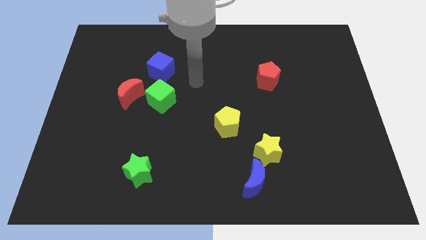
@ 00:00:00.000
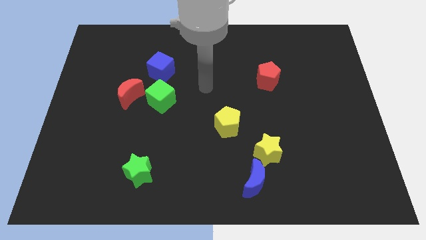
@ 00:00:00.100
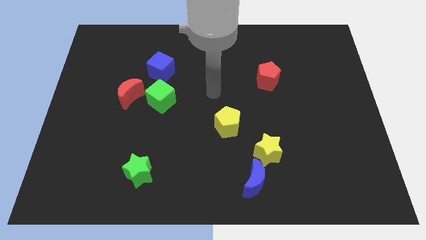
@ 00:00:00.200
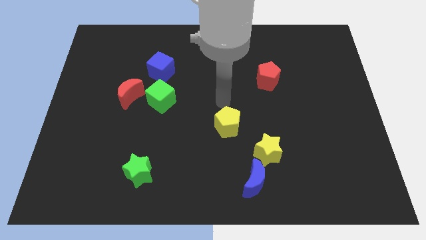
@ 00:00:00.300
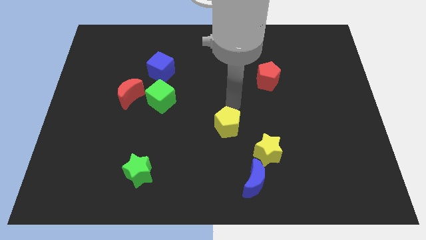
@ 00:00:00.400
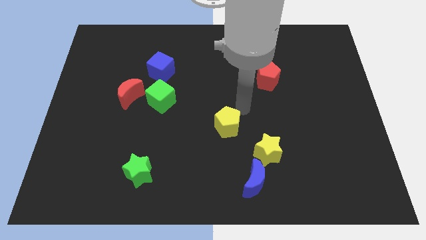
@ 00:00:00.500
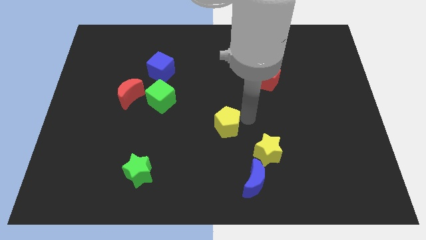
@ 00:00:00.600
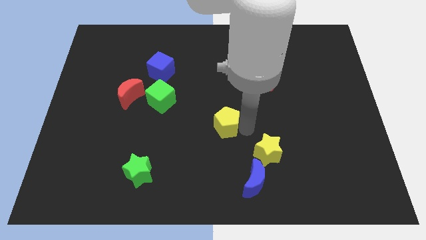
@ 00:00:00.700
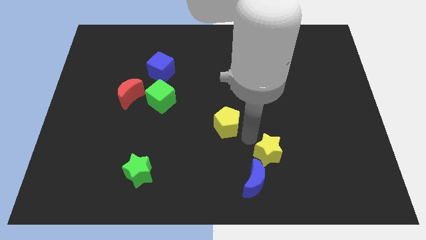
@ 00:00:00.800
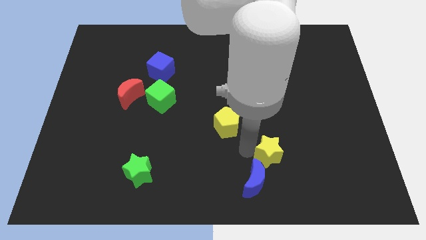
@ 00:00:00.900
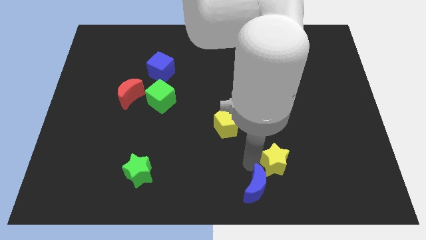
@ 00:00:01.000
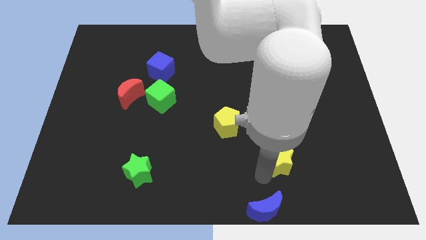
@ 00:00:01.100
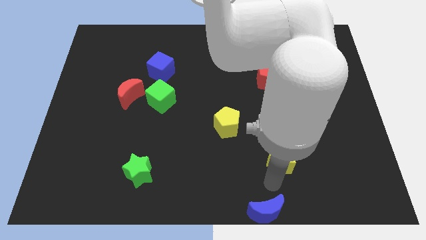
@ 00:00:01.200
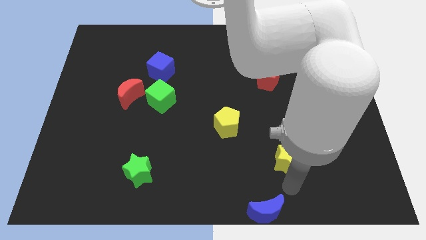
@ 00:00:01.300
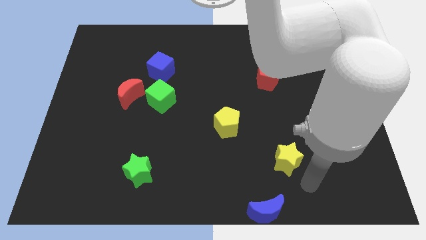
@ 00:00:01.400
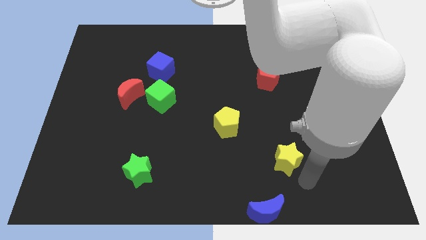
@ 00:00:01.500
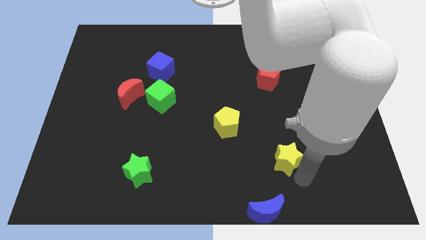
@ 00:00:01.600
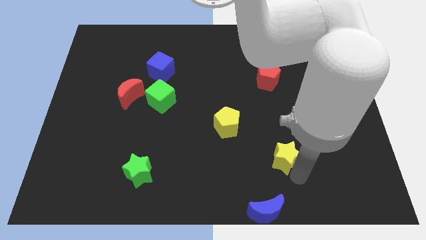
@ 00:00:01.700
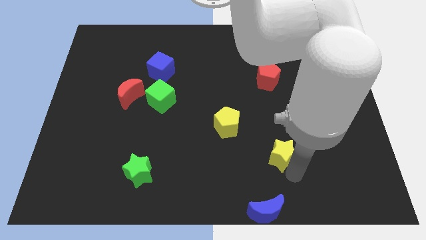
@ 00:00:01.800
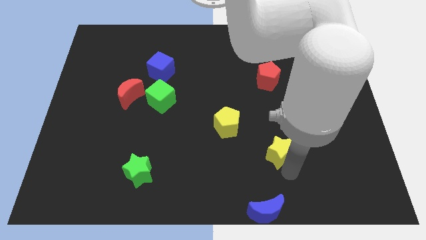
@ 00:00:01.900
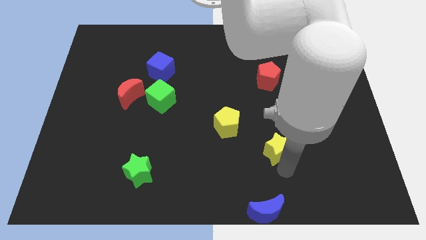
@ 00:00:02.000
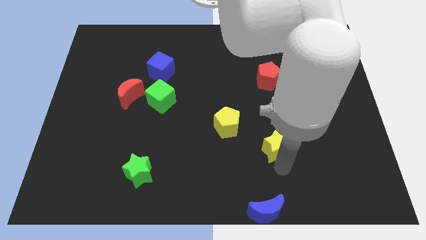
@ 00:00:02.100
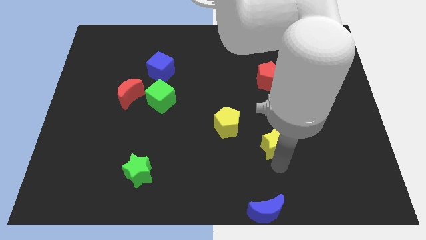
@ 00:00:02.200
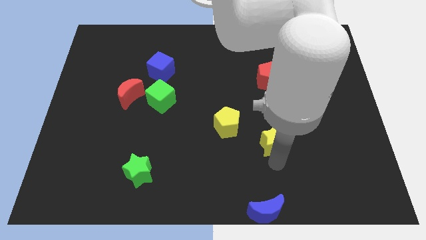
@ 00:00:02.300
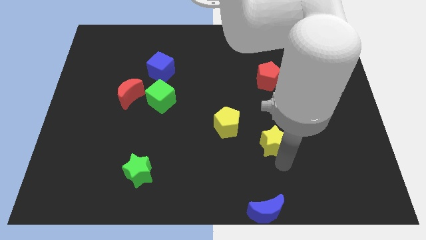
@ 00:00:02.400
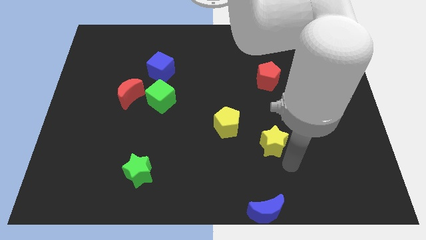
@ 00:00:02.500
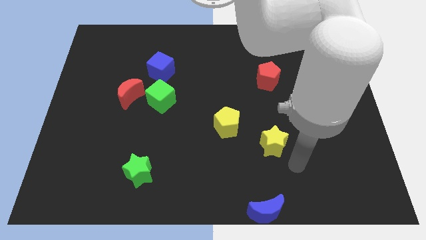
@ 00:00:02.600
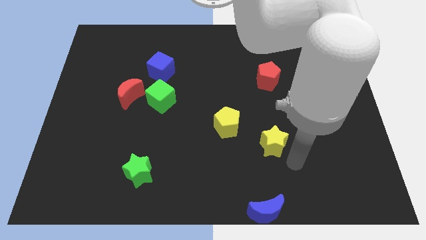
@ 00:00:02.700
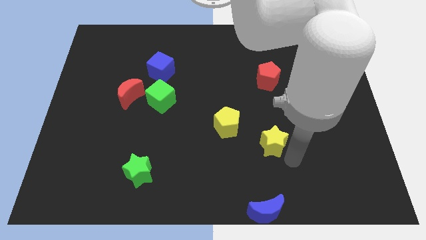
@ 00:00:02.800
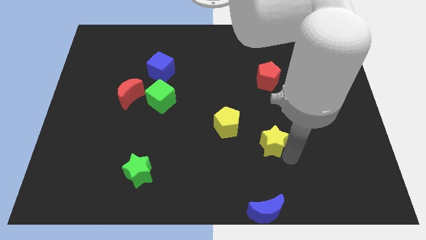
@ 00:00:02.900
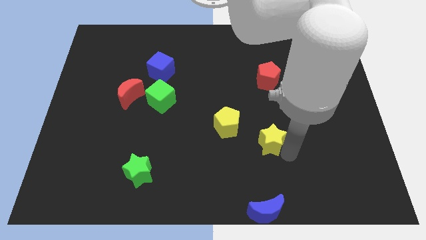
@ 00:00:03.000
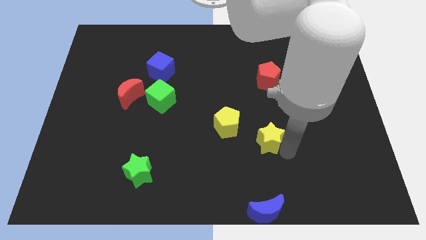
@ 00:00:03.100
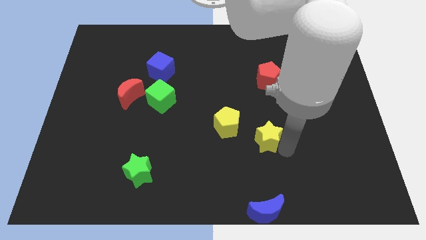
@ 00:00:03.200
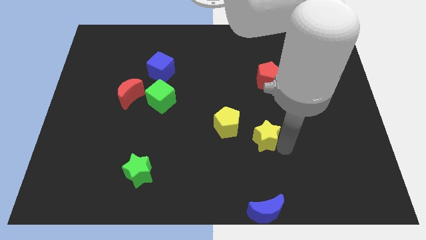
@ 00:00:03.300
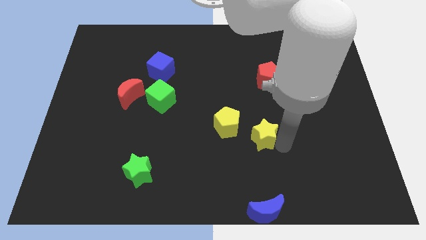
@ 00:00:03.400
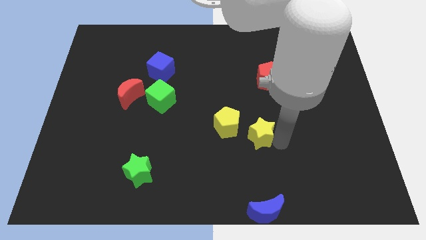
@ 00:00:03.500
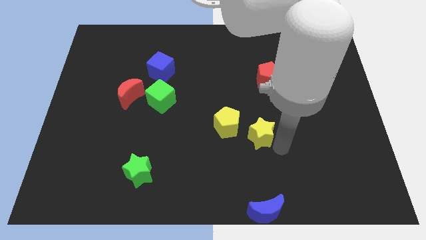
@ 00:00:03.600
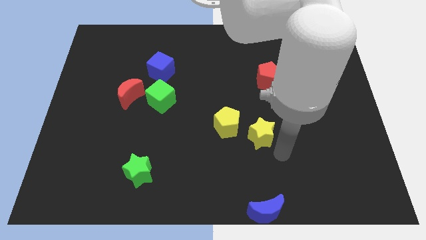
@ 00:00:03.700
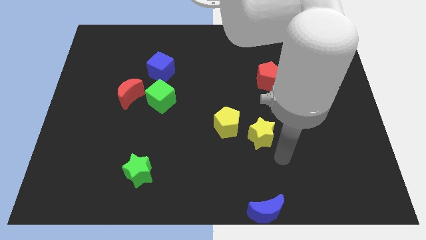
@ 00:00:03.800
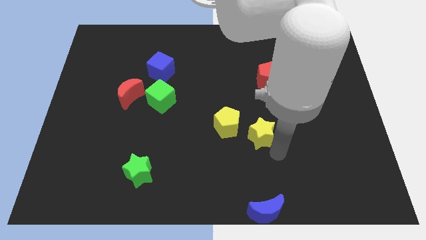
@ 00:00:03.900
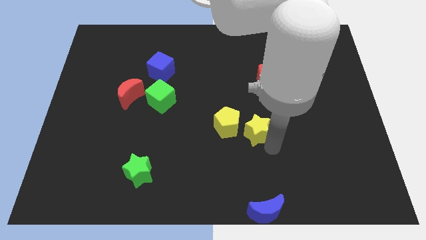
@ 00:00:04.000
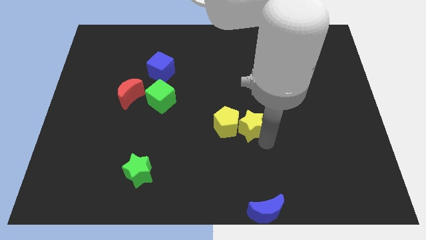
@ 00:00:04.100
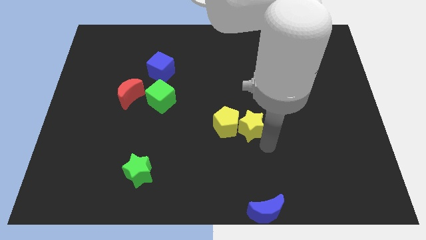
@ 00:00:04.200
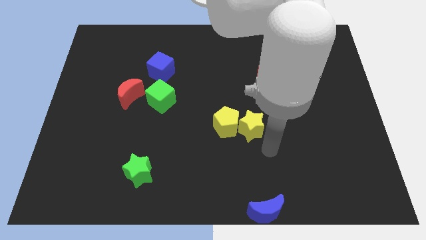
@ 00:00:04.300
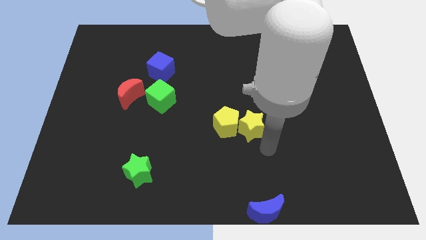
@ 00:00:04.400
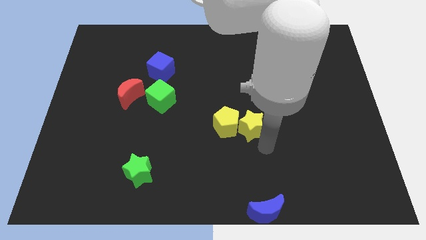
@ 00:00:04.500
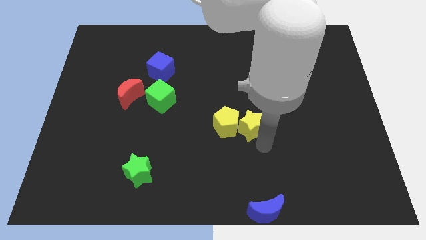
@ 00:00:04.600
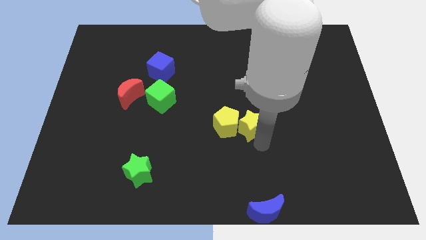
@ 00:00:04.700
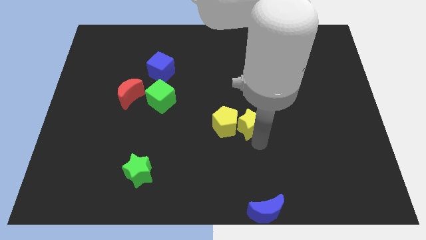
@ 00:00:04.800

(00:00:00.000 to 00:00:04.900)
move the yellow star upwards and to the left diagonally a little bit

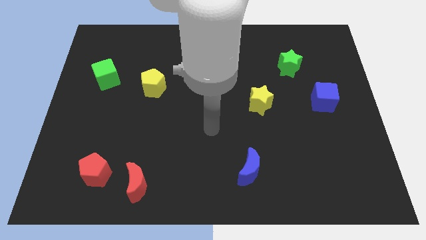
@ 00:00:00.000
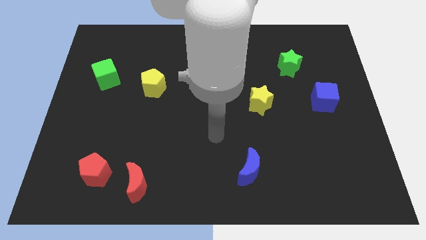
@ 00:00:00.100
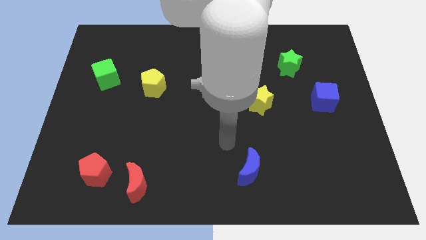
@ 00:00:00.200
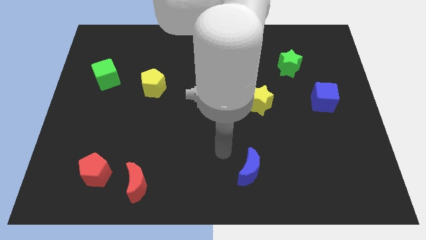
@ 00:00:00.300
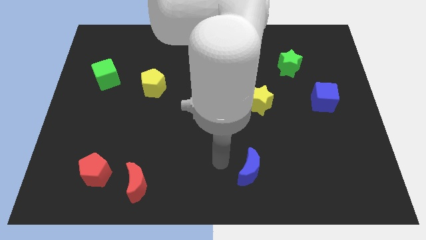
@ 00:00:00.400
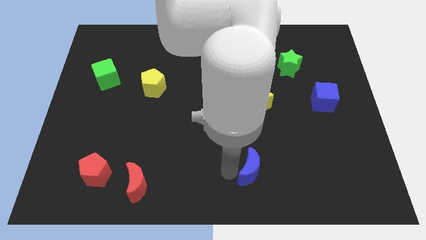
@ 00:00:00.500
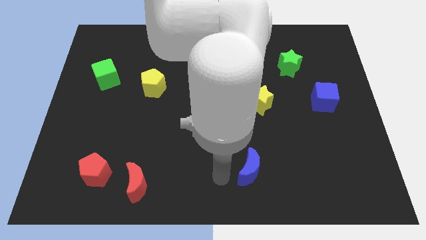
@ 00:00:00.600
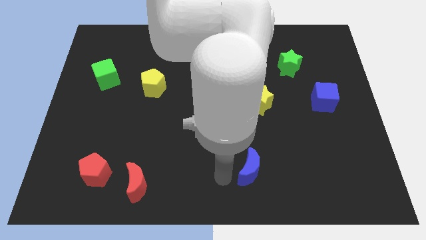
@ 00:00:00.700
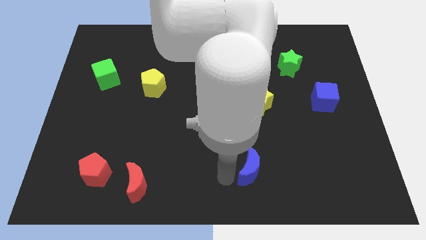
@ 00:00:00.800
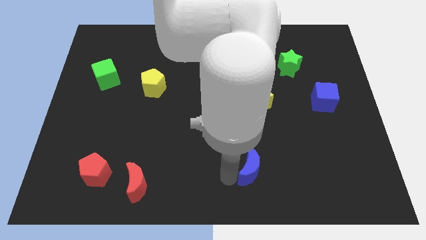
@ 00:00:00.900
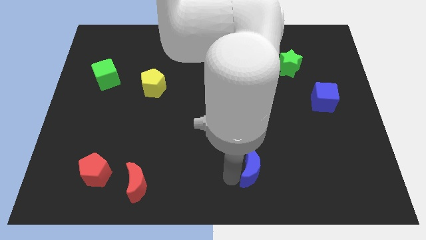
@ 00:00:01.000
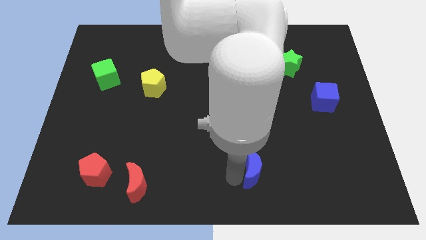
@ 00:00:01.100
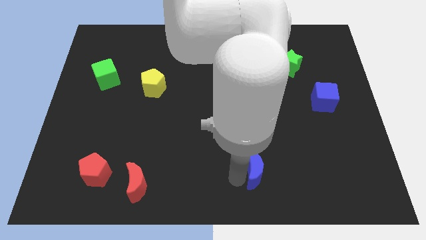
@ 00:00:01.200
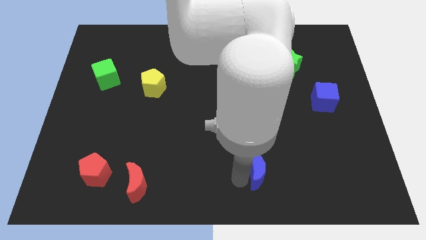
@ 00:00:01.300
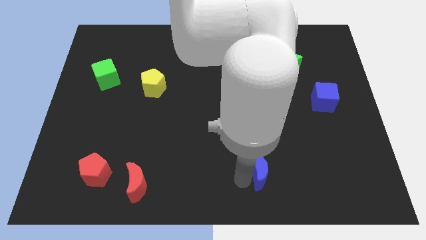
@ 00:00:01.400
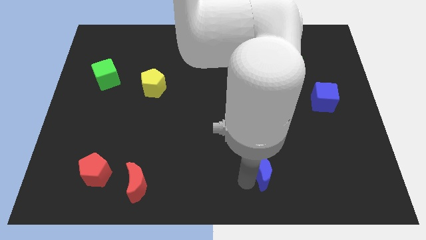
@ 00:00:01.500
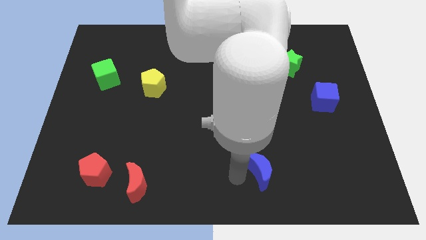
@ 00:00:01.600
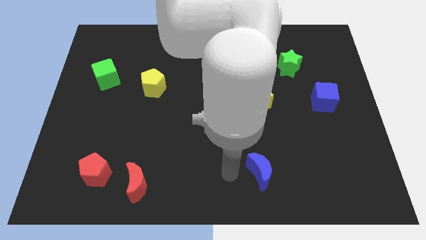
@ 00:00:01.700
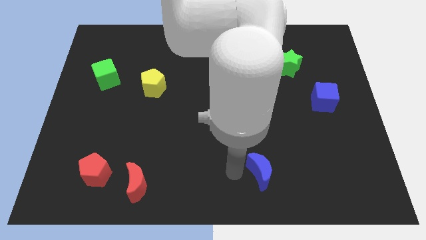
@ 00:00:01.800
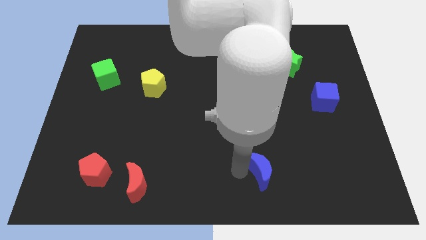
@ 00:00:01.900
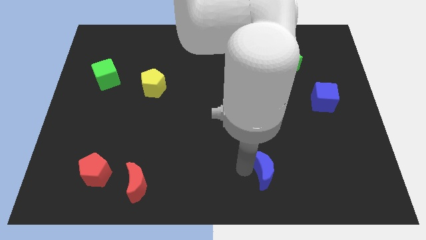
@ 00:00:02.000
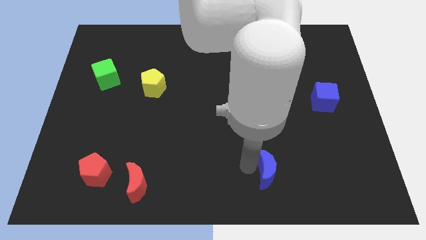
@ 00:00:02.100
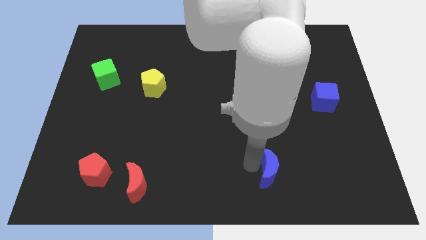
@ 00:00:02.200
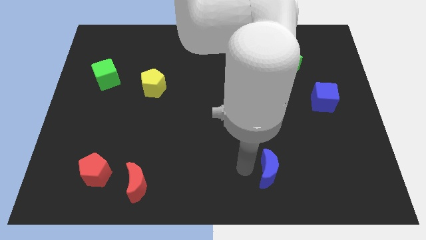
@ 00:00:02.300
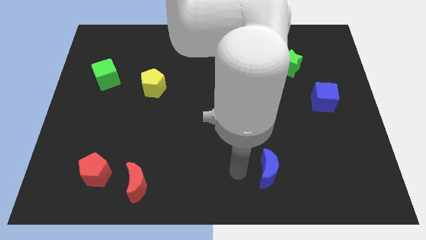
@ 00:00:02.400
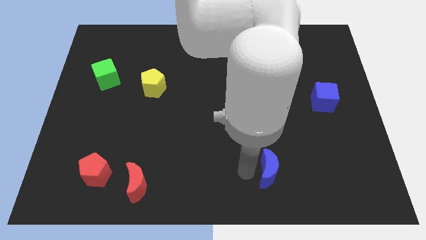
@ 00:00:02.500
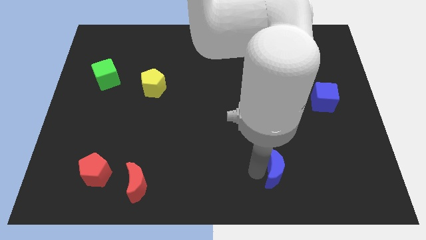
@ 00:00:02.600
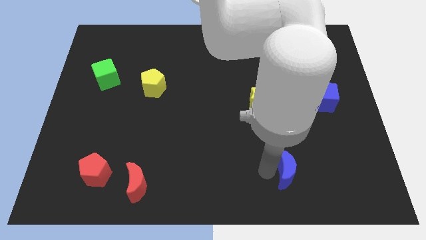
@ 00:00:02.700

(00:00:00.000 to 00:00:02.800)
slightly move the blue moon right

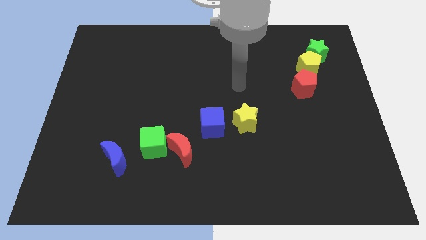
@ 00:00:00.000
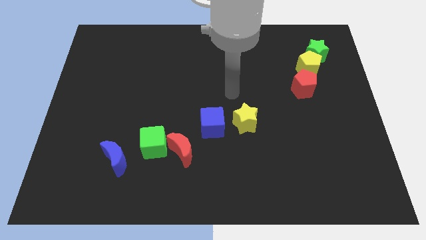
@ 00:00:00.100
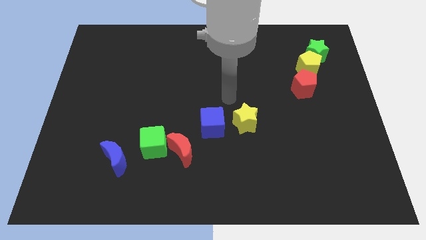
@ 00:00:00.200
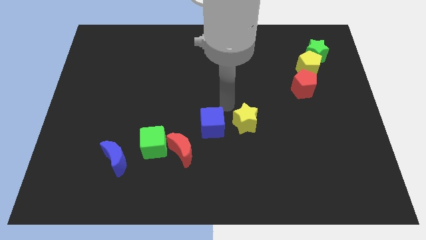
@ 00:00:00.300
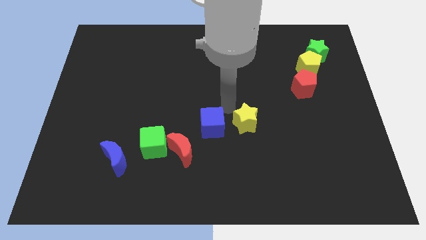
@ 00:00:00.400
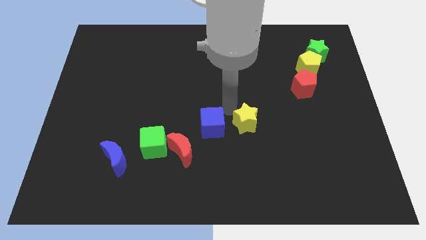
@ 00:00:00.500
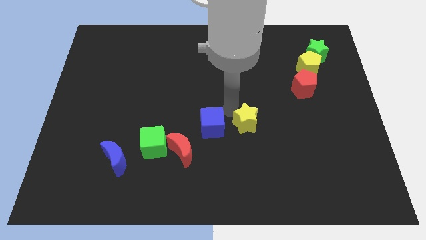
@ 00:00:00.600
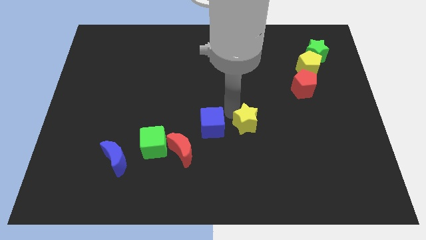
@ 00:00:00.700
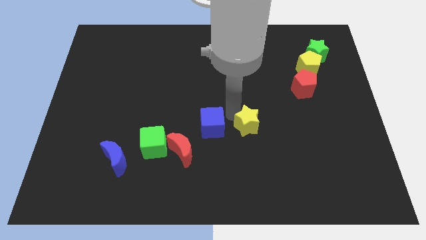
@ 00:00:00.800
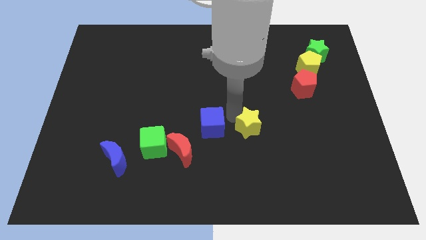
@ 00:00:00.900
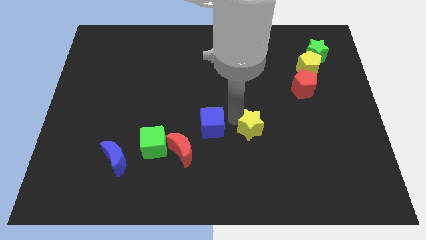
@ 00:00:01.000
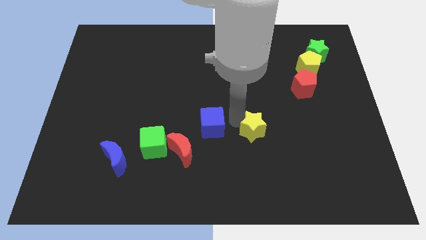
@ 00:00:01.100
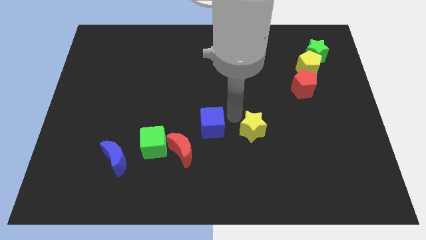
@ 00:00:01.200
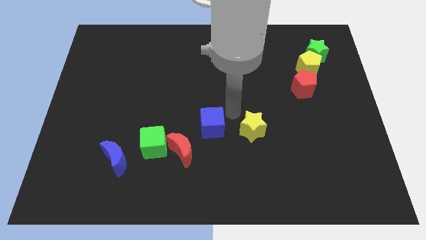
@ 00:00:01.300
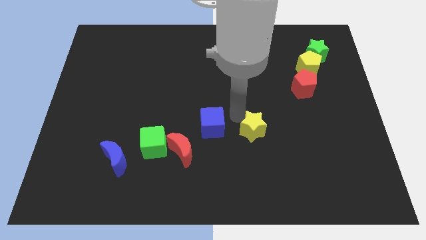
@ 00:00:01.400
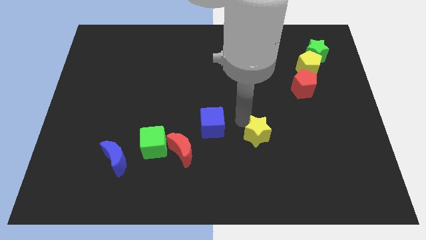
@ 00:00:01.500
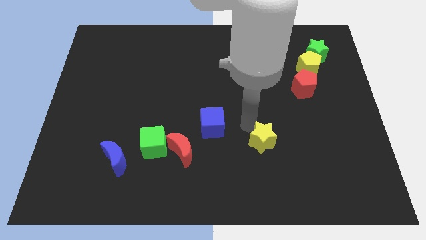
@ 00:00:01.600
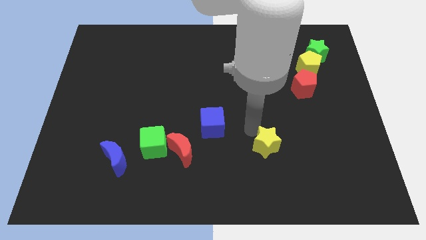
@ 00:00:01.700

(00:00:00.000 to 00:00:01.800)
push the yellow star somewhat downwards and to the right diagonally
